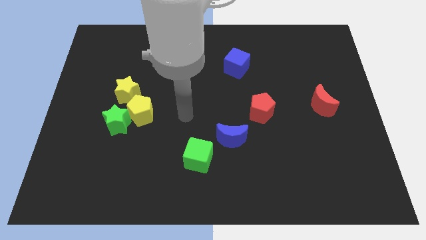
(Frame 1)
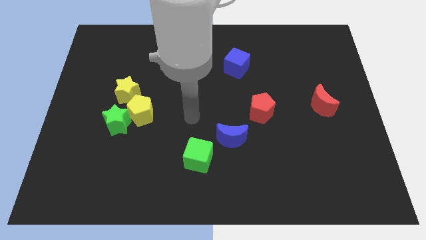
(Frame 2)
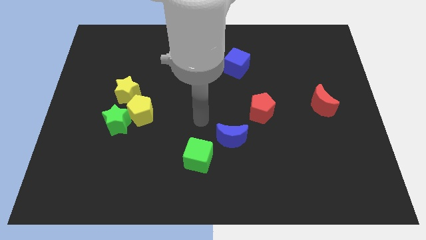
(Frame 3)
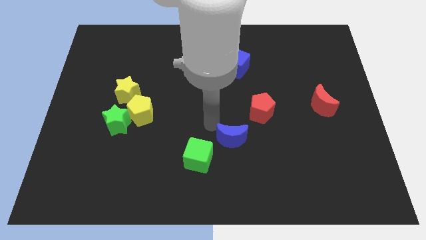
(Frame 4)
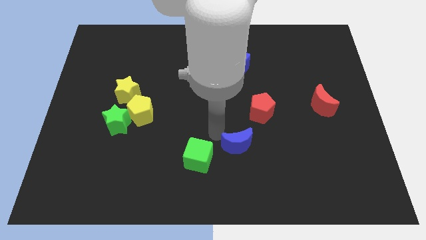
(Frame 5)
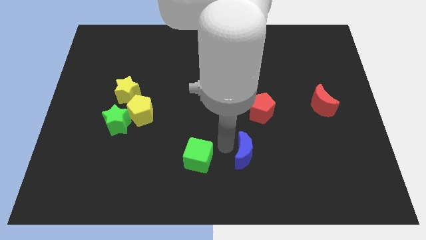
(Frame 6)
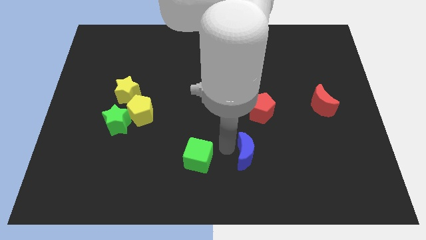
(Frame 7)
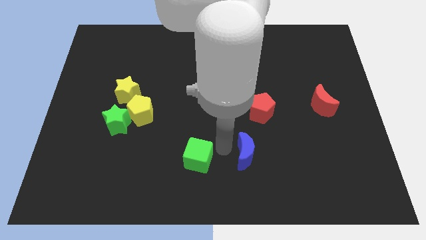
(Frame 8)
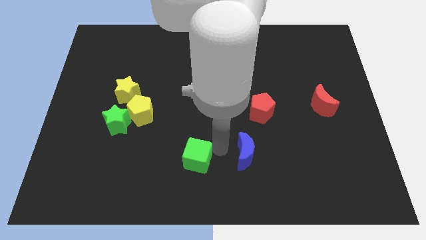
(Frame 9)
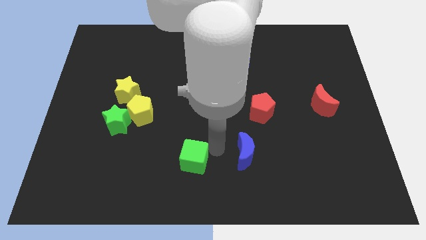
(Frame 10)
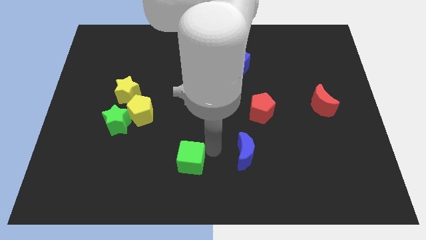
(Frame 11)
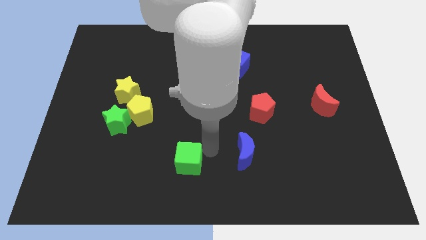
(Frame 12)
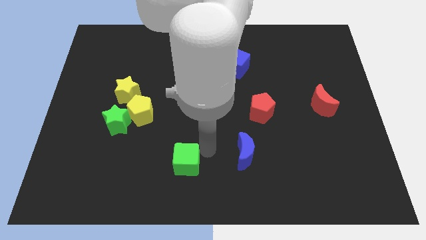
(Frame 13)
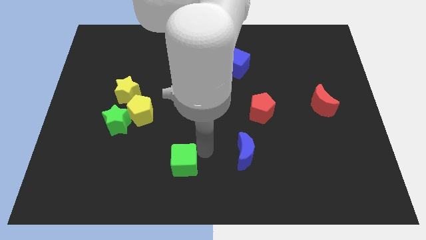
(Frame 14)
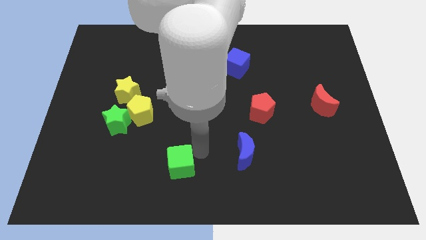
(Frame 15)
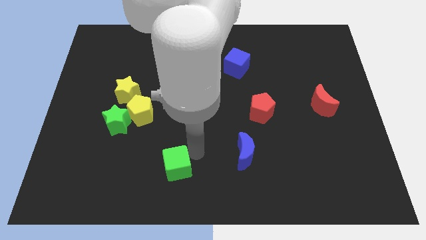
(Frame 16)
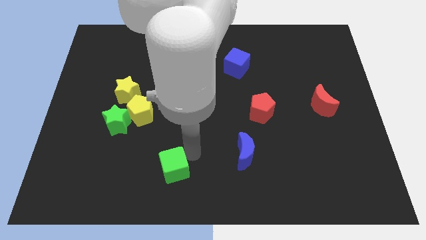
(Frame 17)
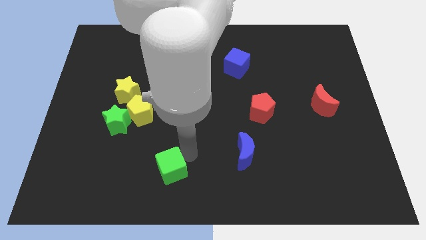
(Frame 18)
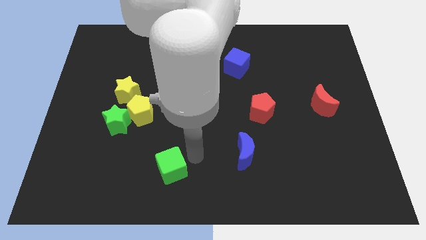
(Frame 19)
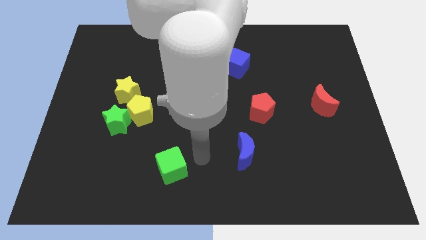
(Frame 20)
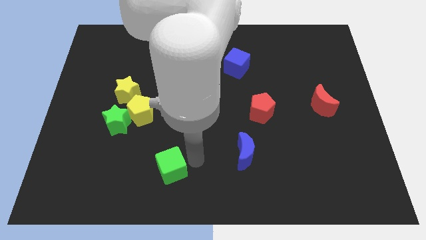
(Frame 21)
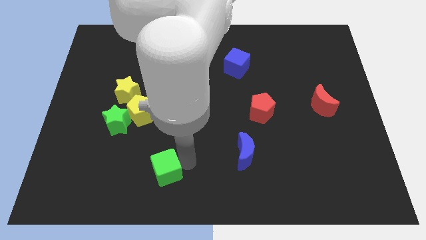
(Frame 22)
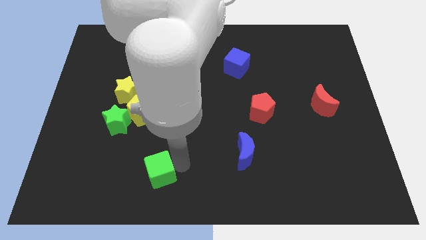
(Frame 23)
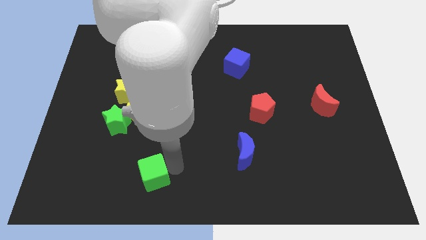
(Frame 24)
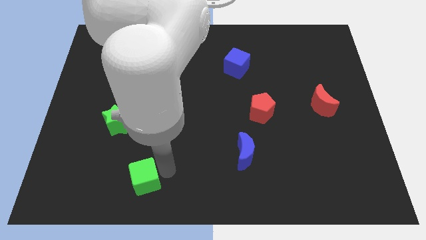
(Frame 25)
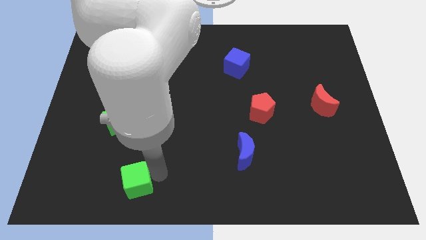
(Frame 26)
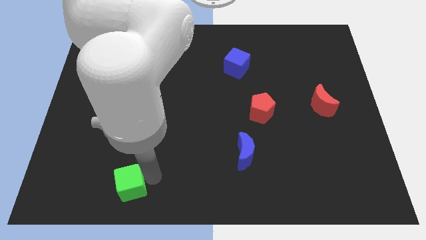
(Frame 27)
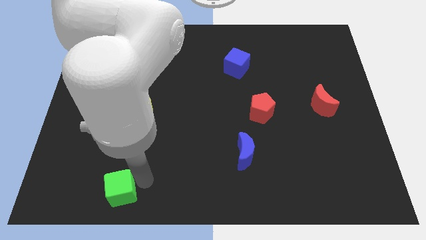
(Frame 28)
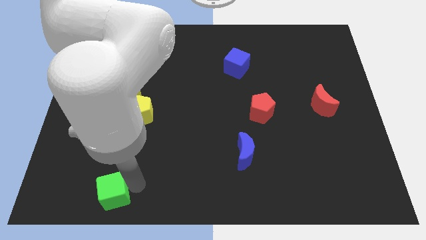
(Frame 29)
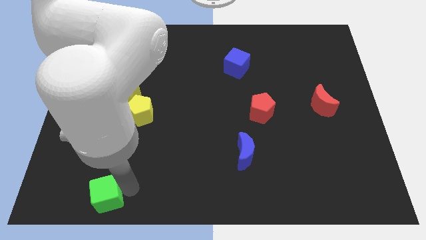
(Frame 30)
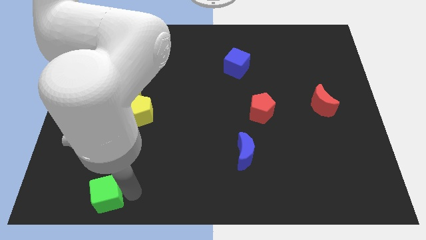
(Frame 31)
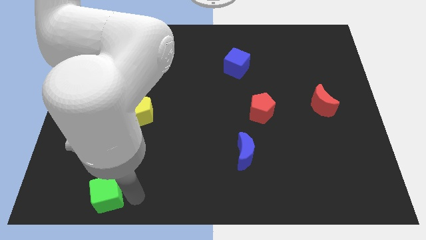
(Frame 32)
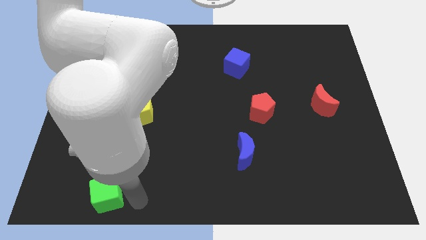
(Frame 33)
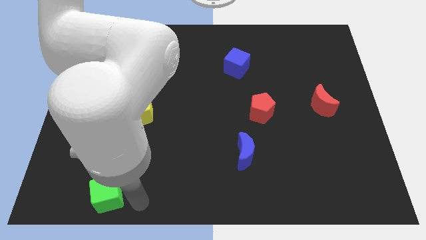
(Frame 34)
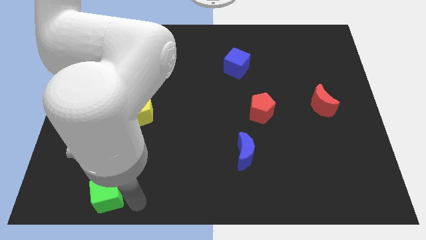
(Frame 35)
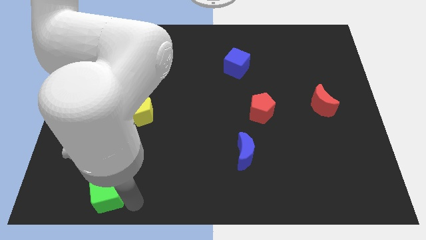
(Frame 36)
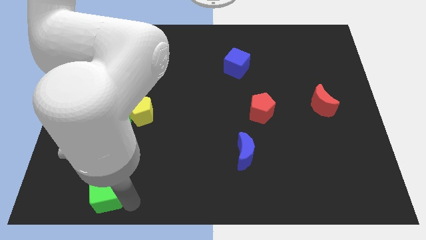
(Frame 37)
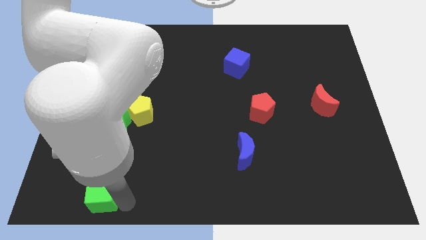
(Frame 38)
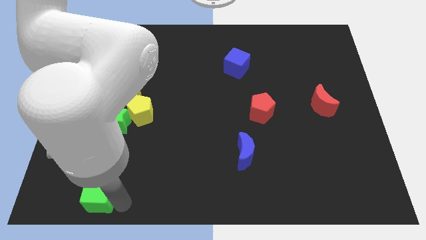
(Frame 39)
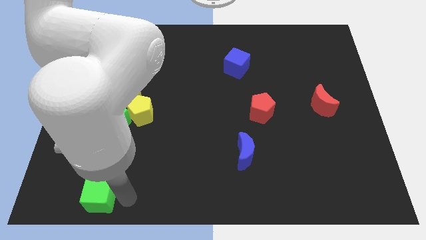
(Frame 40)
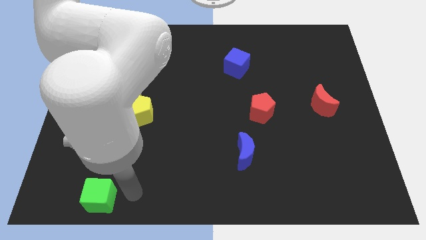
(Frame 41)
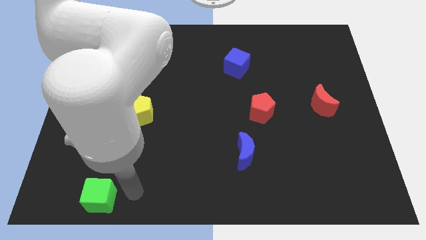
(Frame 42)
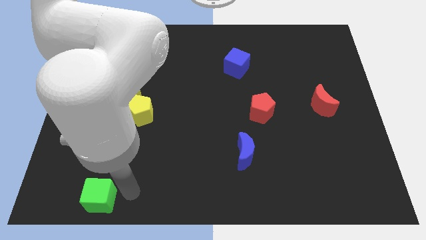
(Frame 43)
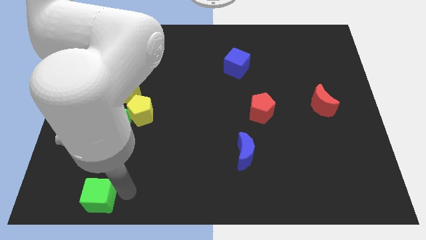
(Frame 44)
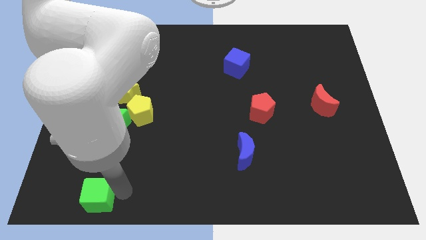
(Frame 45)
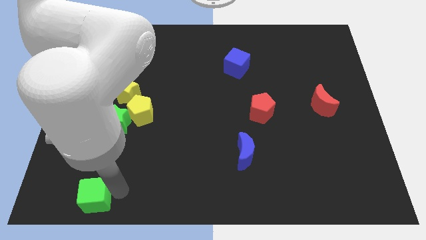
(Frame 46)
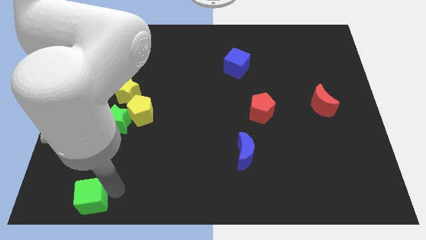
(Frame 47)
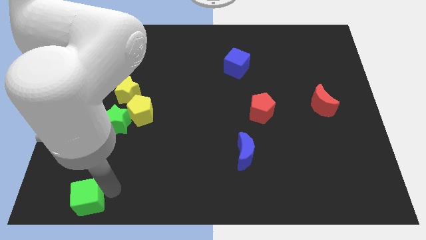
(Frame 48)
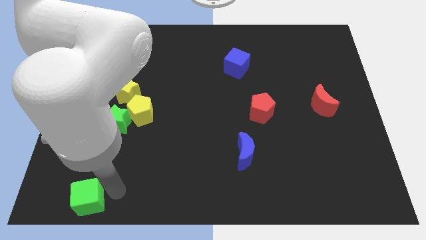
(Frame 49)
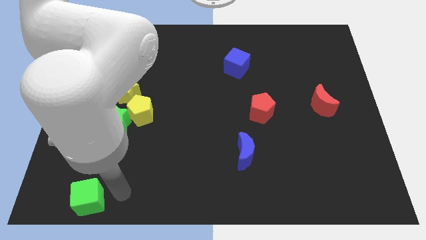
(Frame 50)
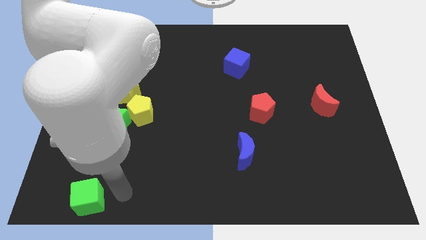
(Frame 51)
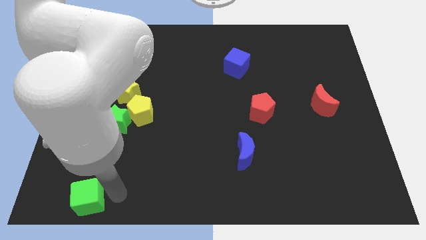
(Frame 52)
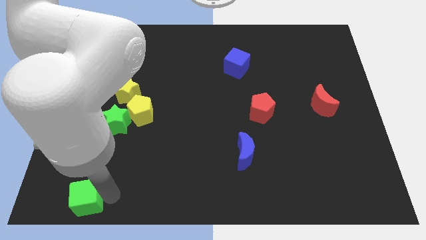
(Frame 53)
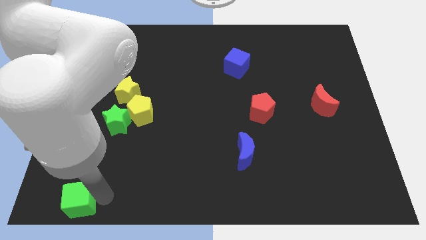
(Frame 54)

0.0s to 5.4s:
push the green cube to the bottom left of the board
